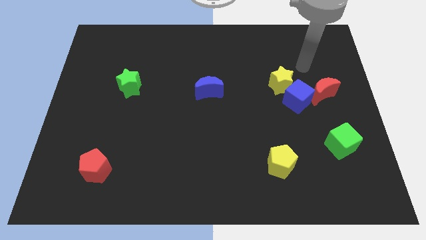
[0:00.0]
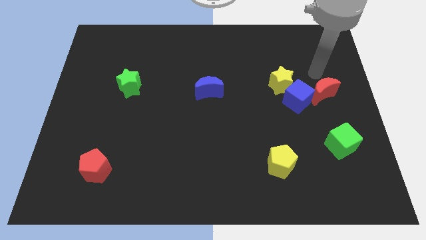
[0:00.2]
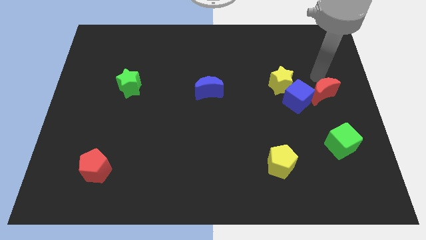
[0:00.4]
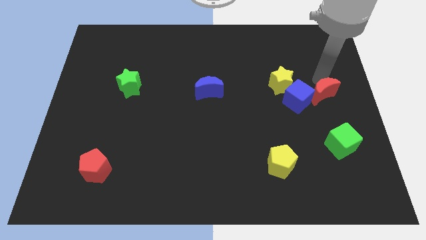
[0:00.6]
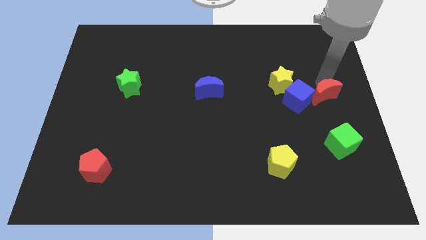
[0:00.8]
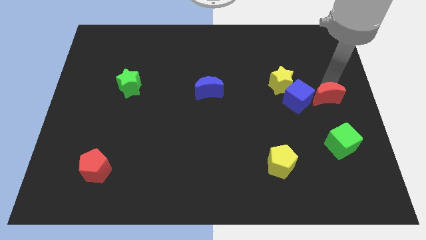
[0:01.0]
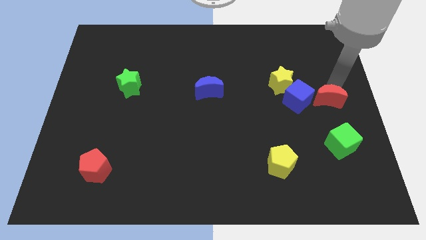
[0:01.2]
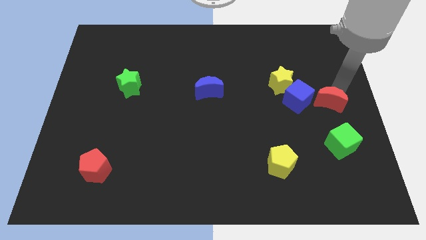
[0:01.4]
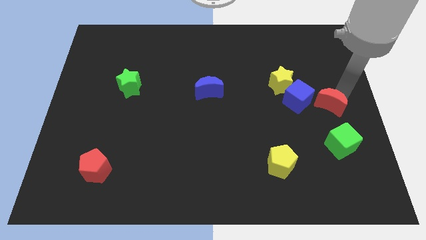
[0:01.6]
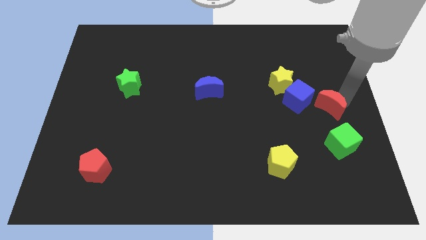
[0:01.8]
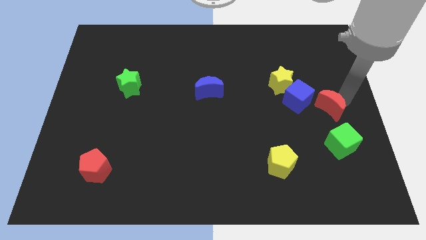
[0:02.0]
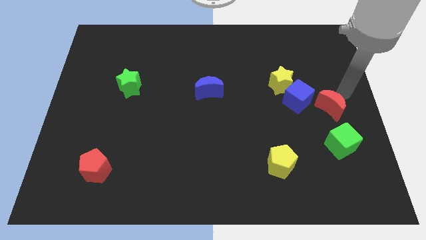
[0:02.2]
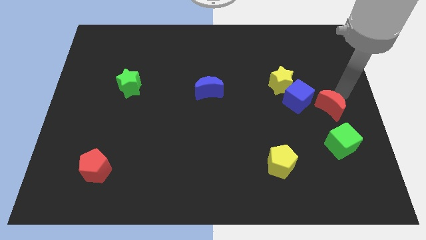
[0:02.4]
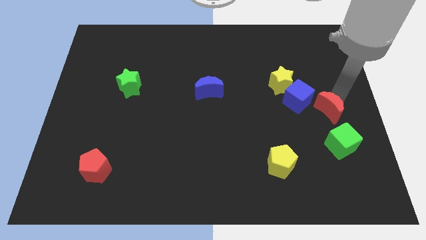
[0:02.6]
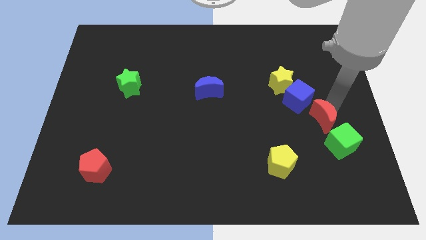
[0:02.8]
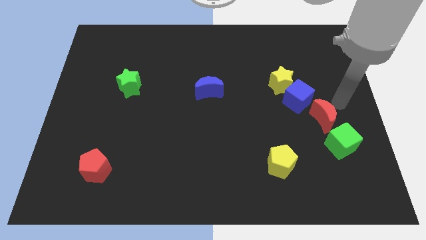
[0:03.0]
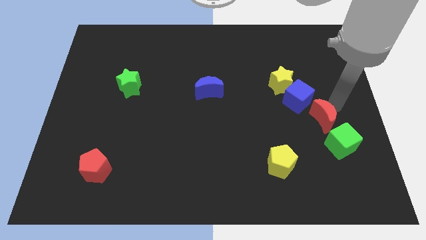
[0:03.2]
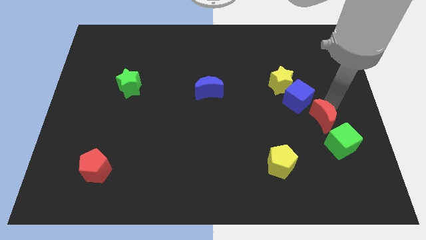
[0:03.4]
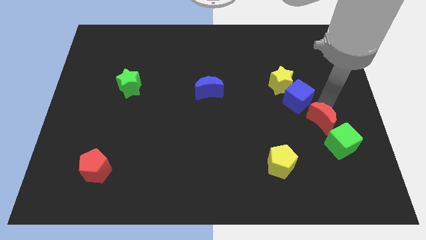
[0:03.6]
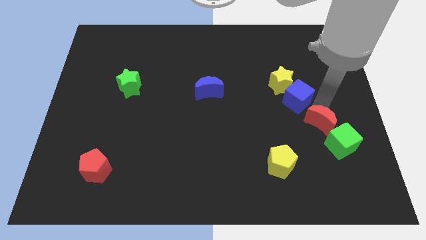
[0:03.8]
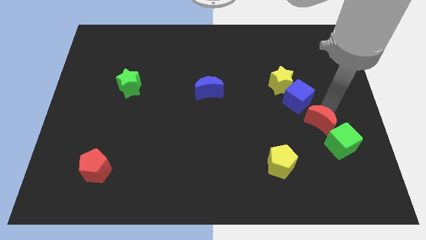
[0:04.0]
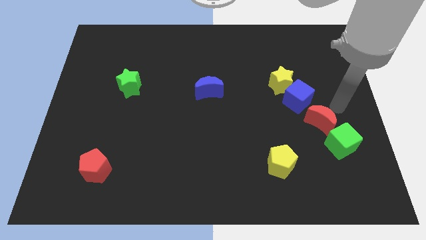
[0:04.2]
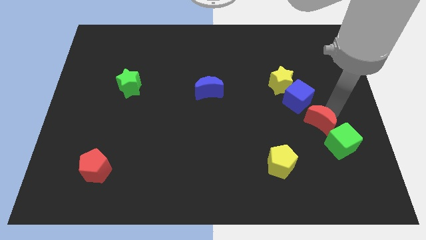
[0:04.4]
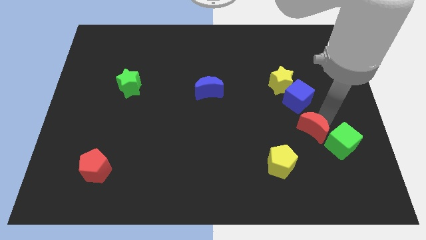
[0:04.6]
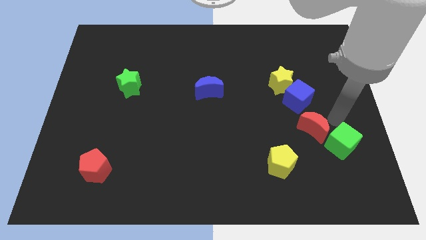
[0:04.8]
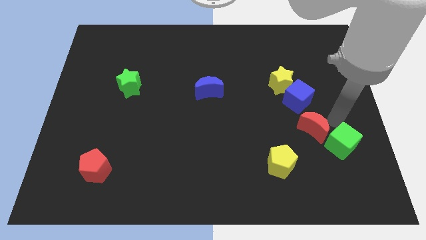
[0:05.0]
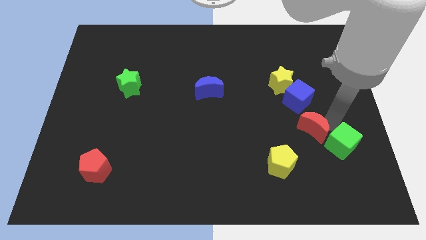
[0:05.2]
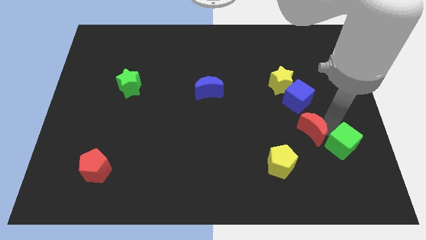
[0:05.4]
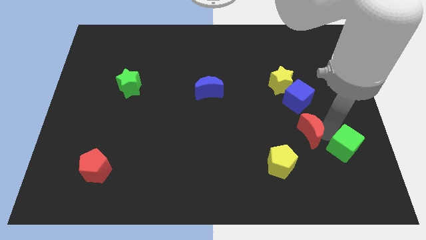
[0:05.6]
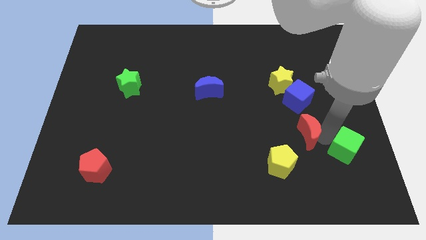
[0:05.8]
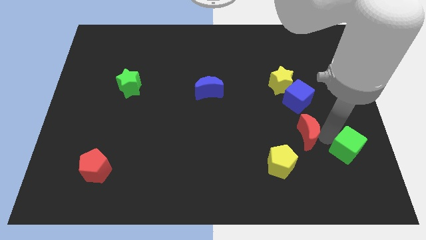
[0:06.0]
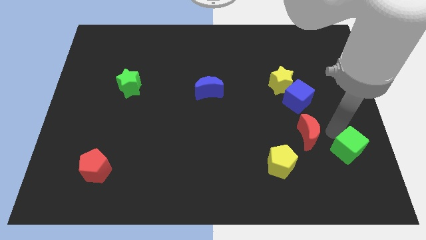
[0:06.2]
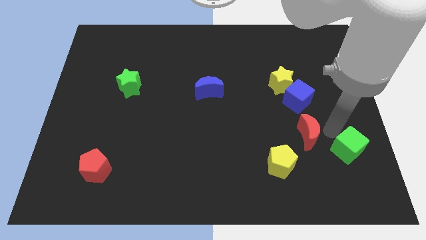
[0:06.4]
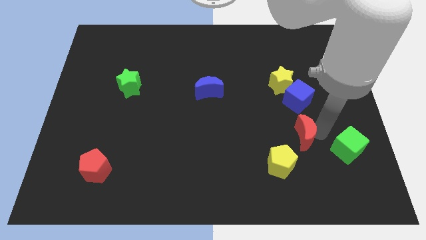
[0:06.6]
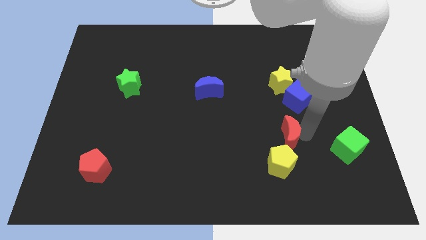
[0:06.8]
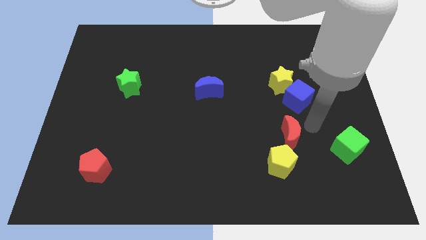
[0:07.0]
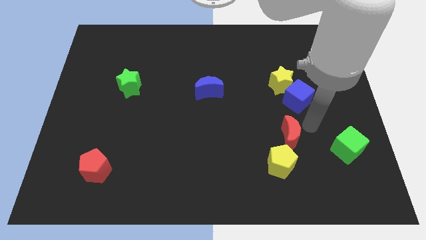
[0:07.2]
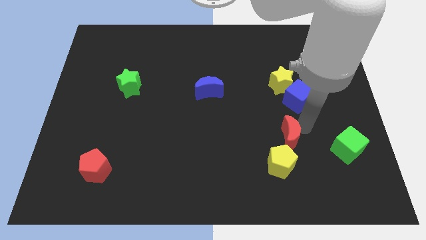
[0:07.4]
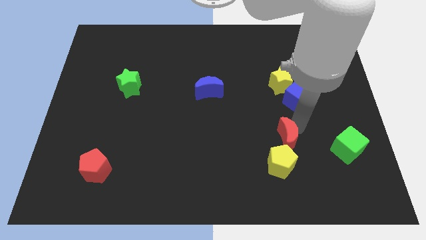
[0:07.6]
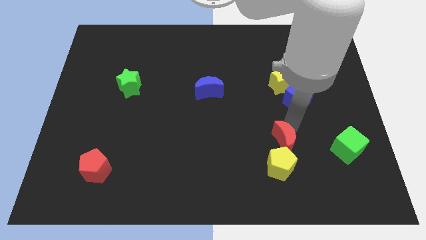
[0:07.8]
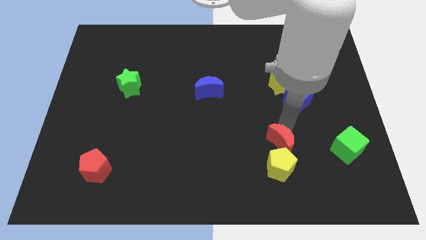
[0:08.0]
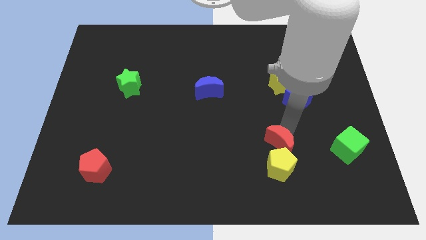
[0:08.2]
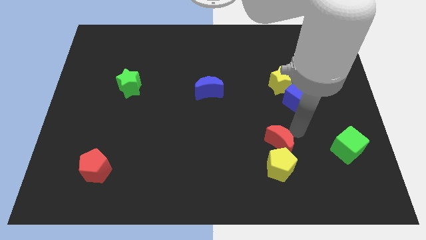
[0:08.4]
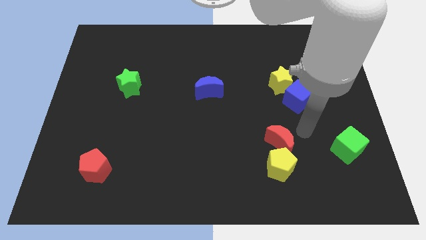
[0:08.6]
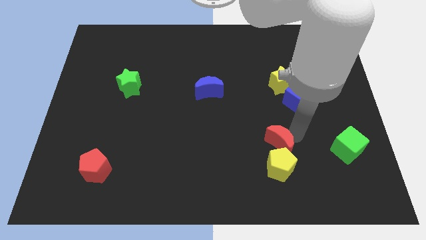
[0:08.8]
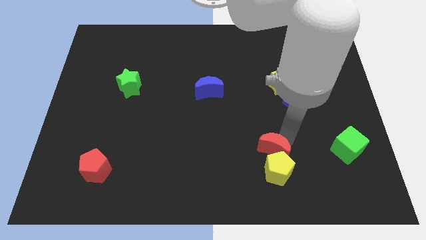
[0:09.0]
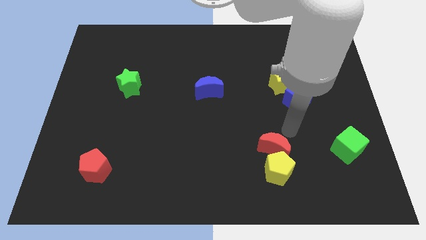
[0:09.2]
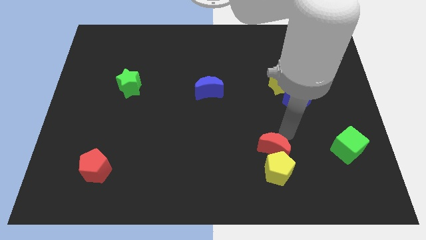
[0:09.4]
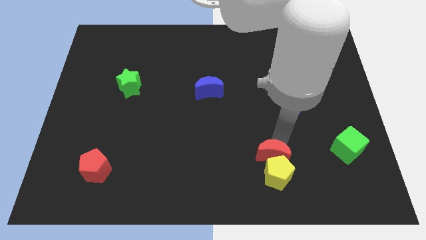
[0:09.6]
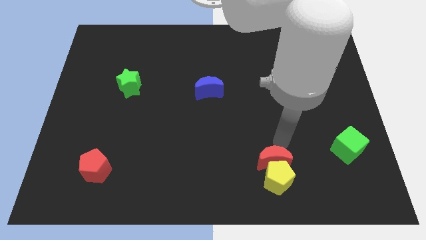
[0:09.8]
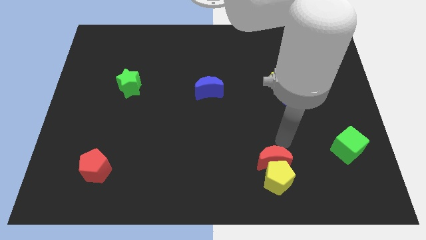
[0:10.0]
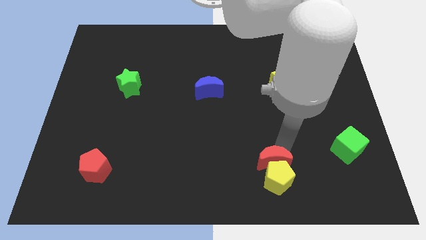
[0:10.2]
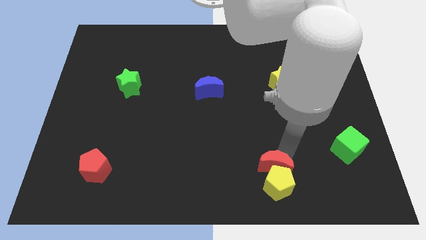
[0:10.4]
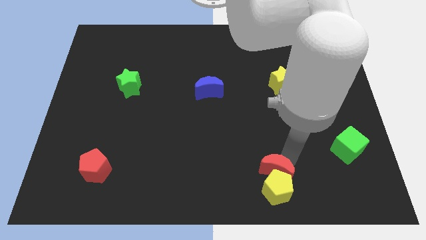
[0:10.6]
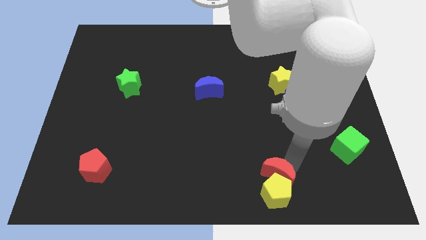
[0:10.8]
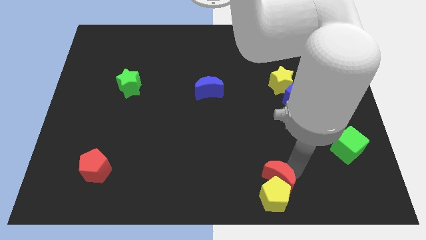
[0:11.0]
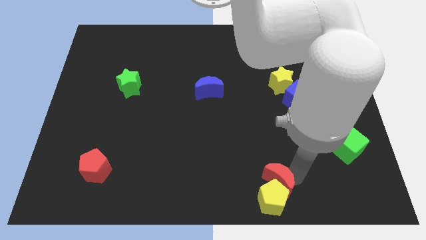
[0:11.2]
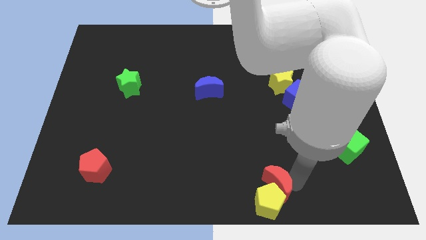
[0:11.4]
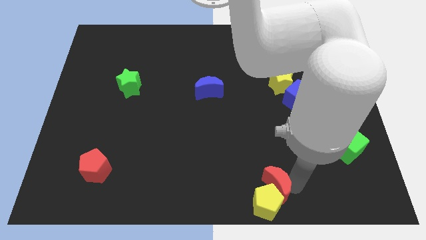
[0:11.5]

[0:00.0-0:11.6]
put the red moon to the bottom side

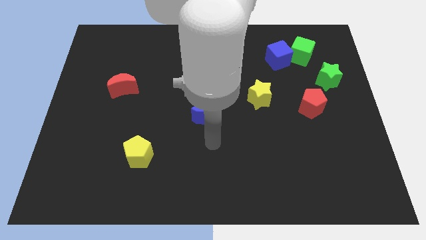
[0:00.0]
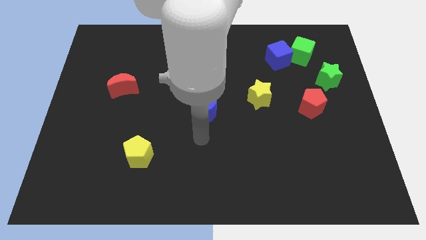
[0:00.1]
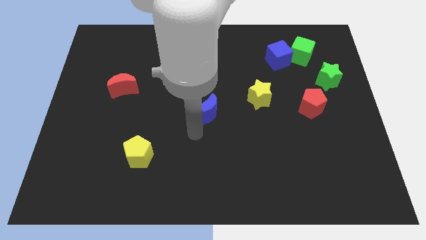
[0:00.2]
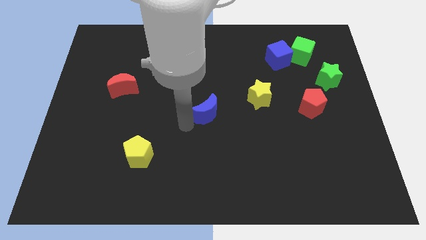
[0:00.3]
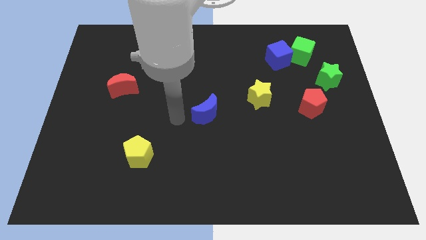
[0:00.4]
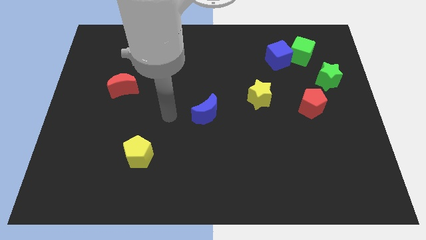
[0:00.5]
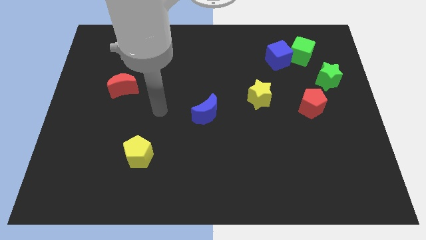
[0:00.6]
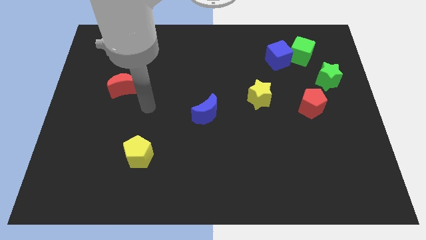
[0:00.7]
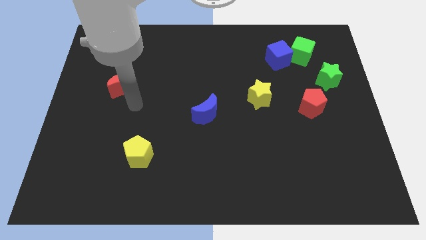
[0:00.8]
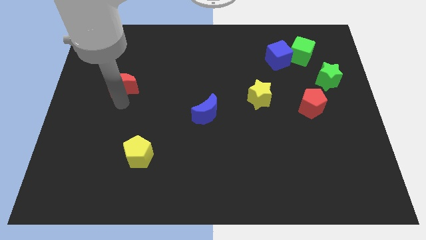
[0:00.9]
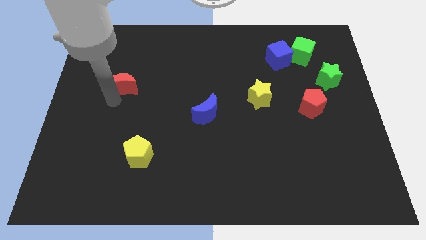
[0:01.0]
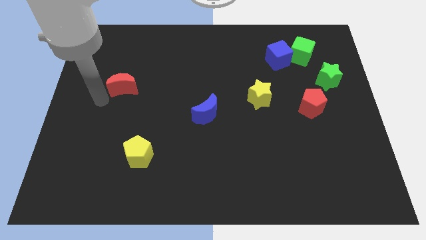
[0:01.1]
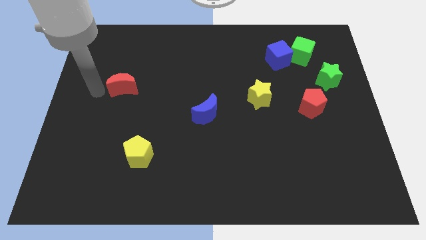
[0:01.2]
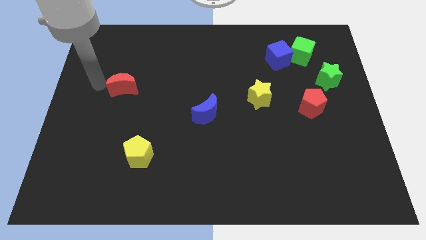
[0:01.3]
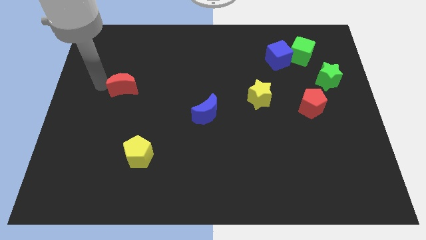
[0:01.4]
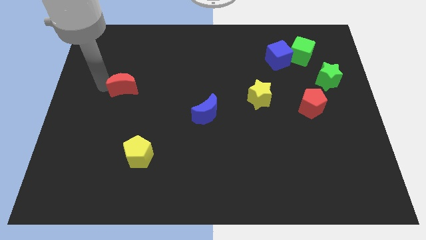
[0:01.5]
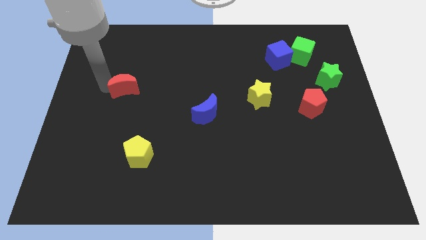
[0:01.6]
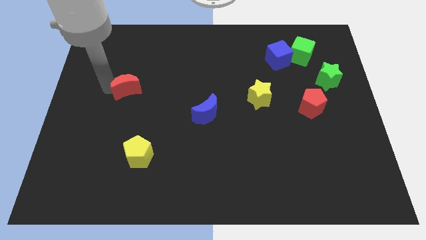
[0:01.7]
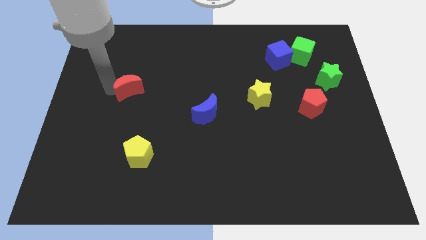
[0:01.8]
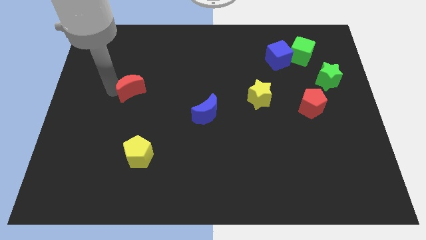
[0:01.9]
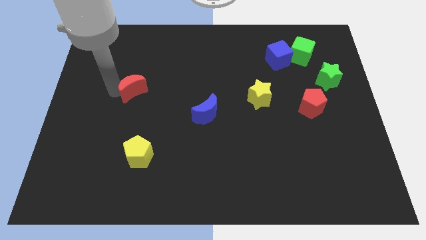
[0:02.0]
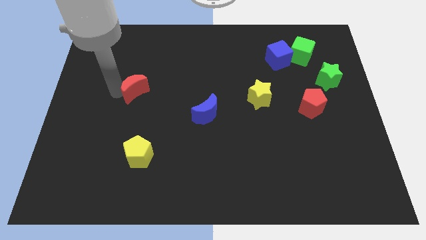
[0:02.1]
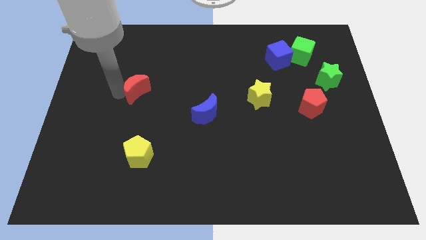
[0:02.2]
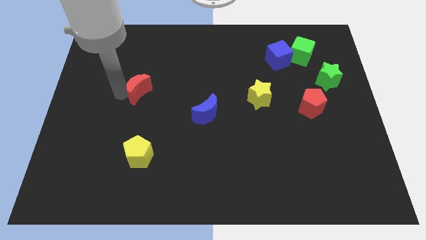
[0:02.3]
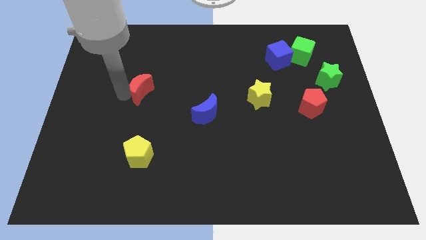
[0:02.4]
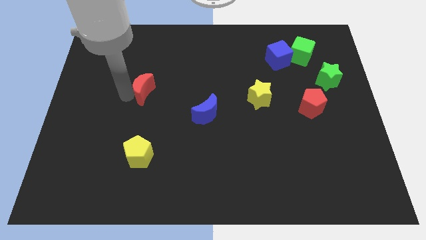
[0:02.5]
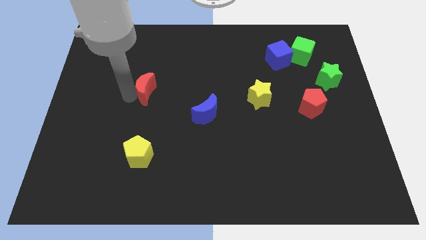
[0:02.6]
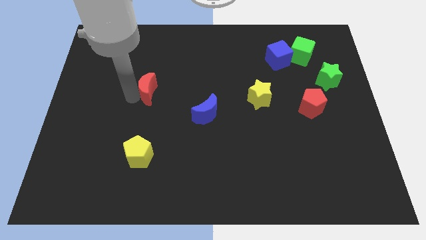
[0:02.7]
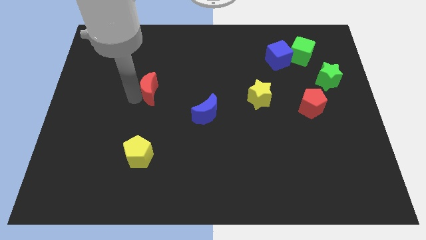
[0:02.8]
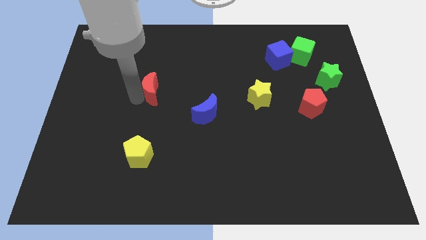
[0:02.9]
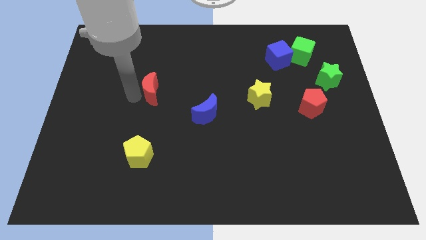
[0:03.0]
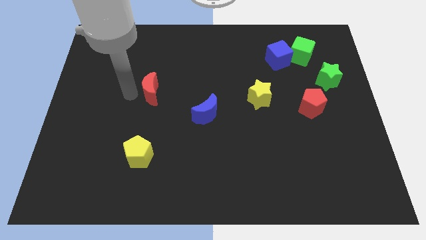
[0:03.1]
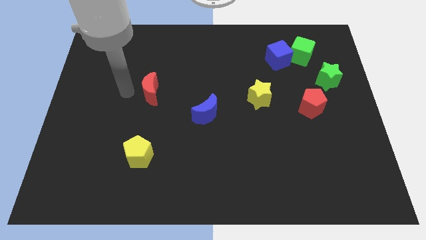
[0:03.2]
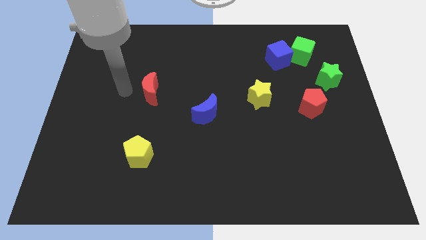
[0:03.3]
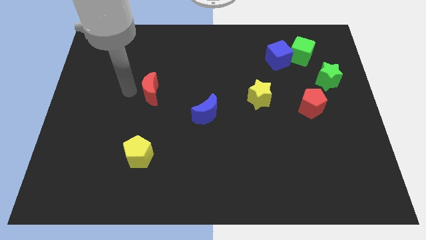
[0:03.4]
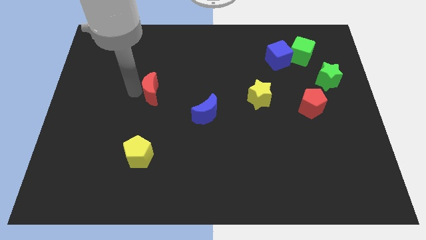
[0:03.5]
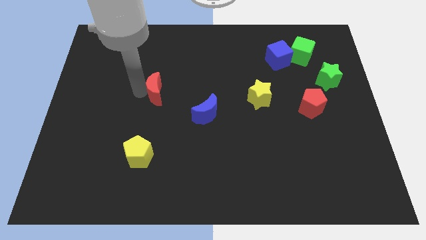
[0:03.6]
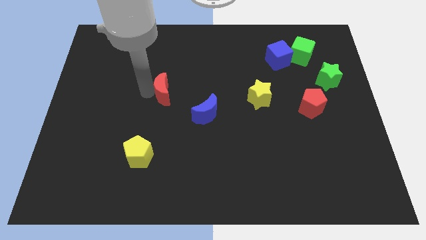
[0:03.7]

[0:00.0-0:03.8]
slide the red moon to the center
